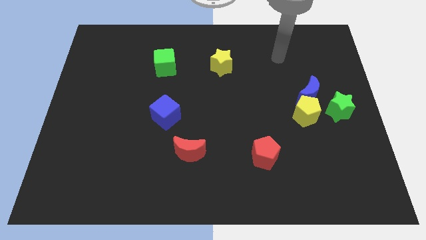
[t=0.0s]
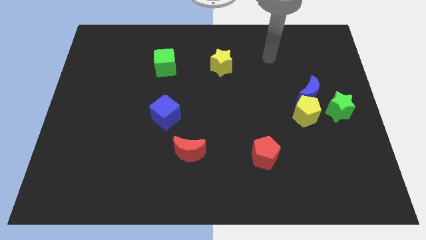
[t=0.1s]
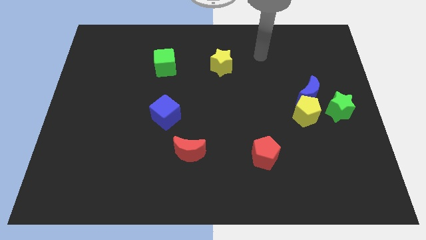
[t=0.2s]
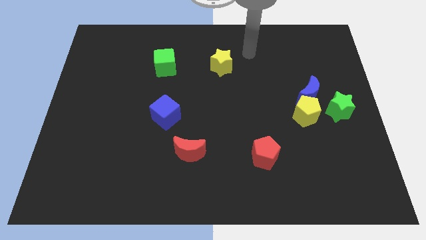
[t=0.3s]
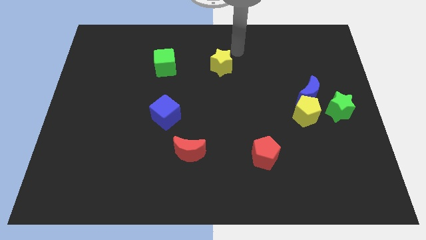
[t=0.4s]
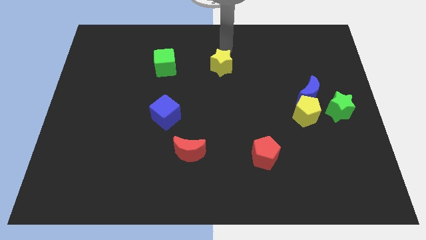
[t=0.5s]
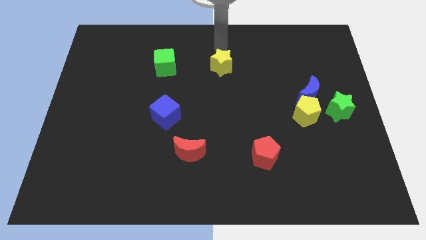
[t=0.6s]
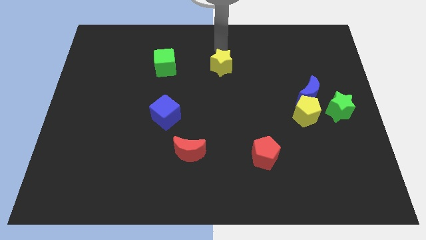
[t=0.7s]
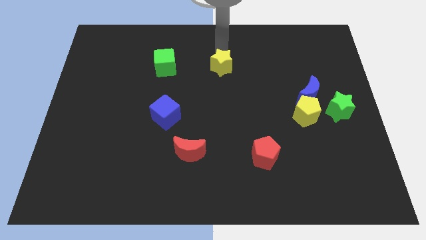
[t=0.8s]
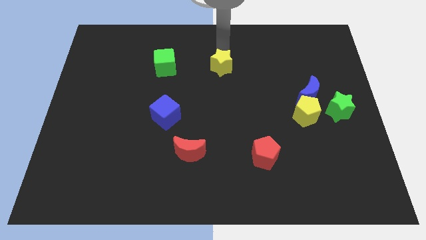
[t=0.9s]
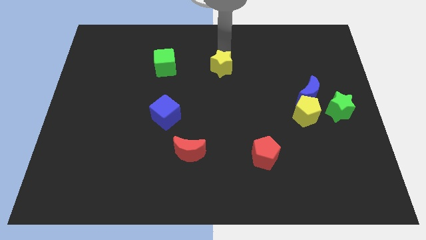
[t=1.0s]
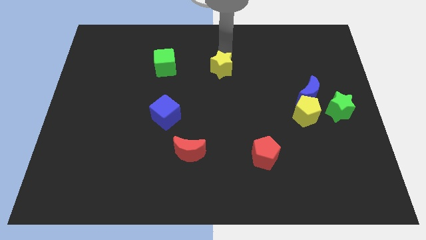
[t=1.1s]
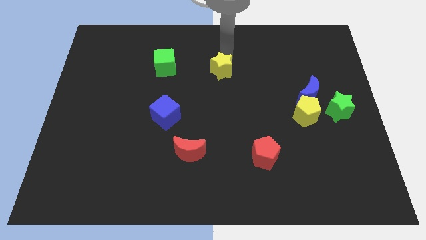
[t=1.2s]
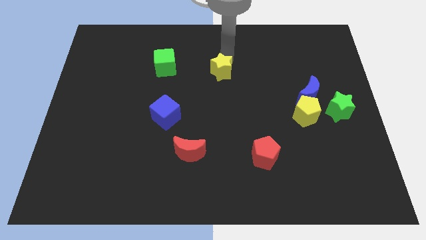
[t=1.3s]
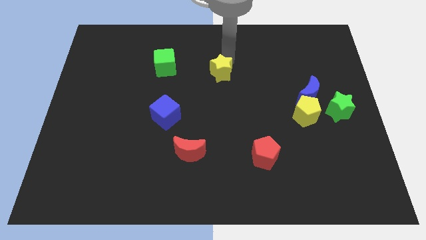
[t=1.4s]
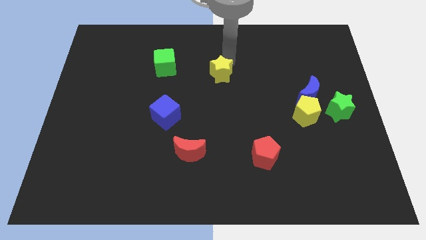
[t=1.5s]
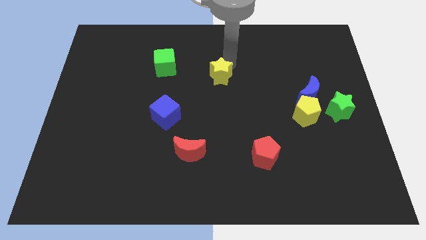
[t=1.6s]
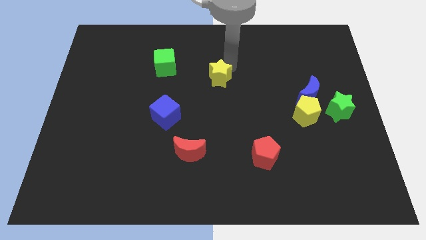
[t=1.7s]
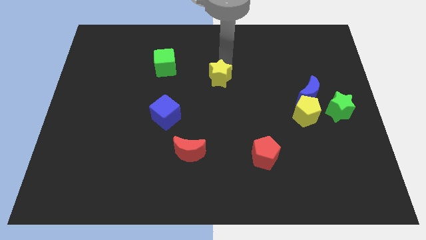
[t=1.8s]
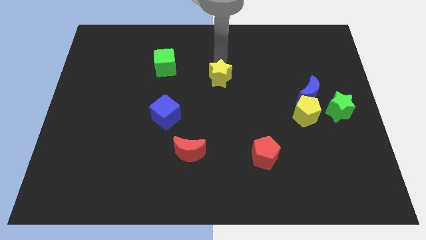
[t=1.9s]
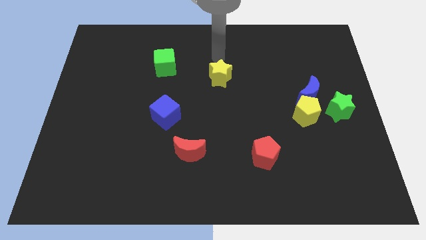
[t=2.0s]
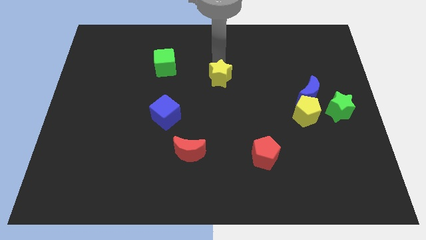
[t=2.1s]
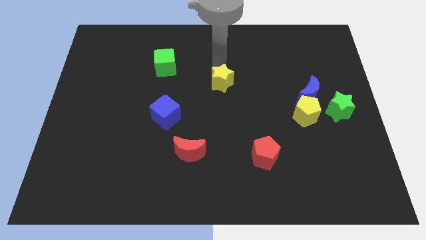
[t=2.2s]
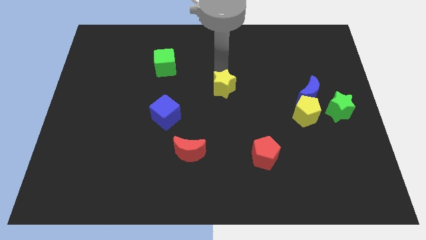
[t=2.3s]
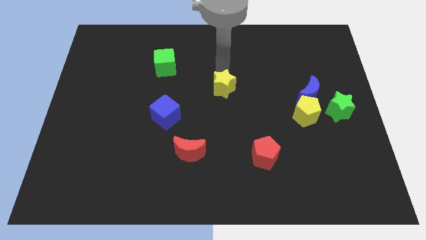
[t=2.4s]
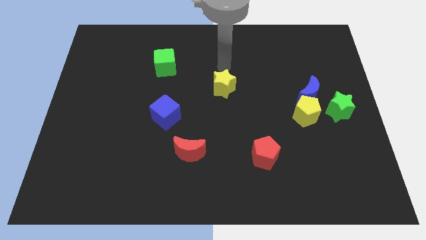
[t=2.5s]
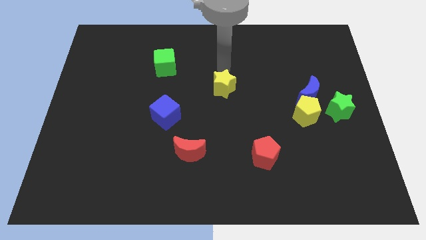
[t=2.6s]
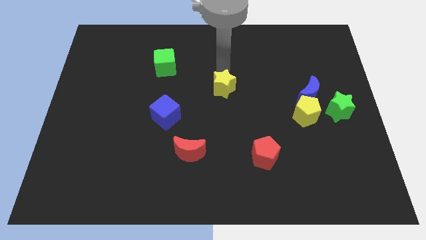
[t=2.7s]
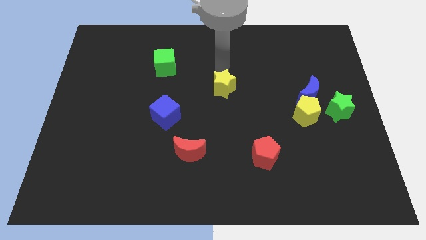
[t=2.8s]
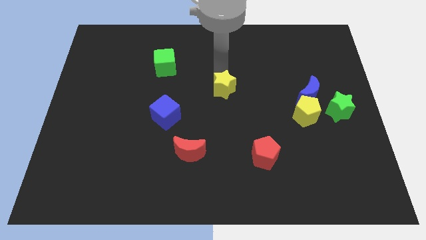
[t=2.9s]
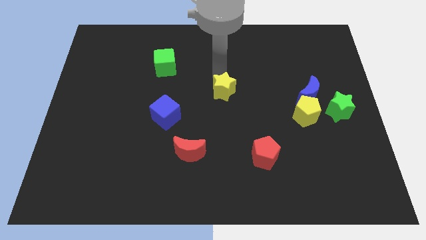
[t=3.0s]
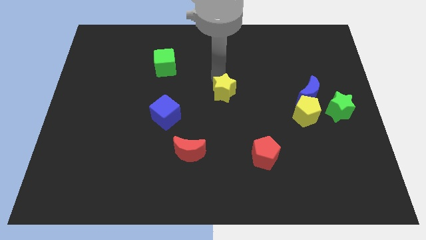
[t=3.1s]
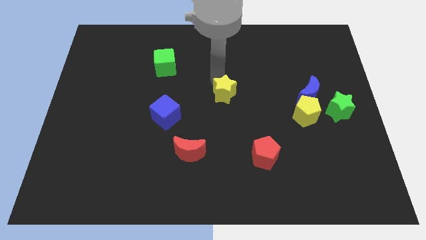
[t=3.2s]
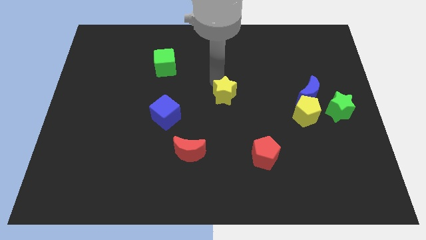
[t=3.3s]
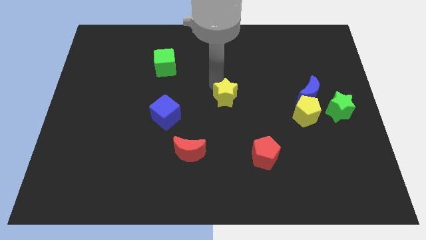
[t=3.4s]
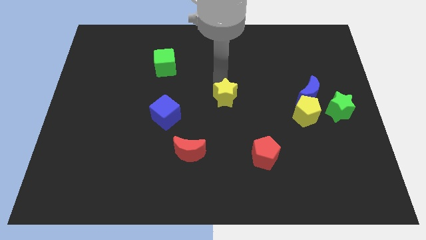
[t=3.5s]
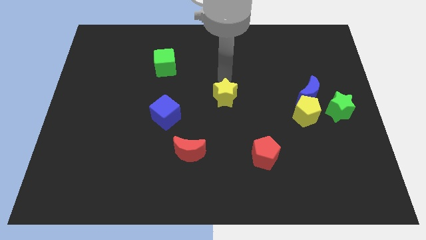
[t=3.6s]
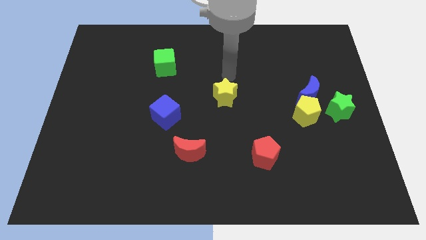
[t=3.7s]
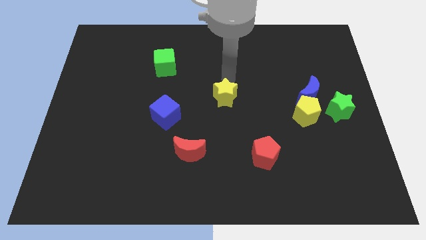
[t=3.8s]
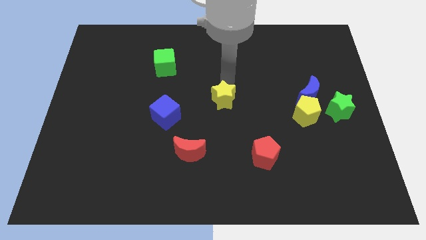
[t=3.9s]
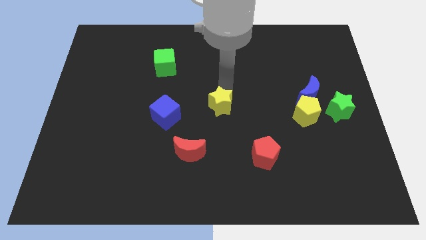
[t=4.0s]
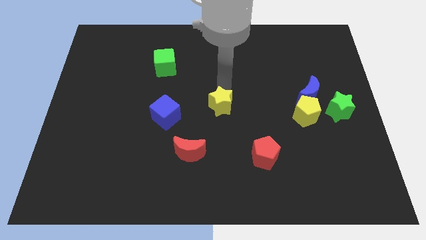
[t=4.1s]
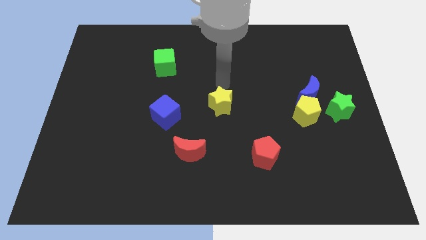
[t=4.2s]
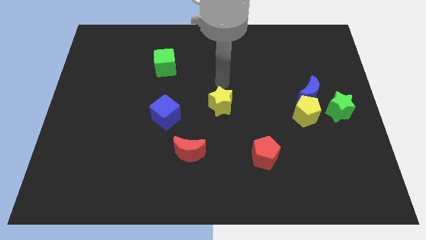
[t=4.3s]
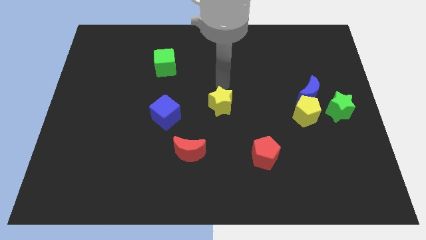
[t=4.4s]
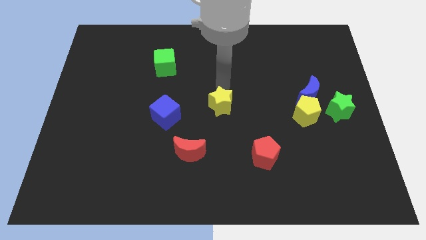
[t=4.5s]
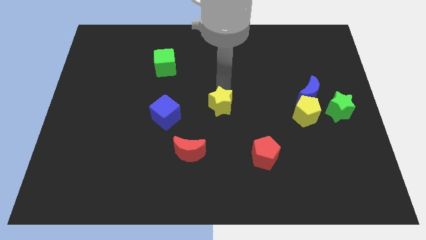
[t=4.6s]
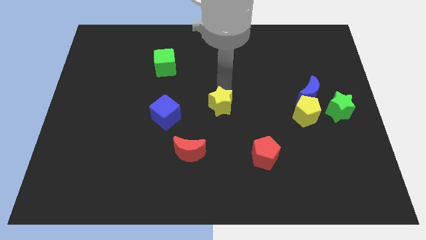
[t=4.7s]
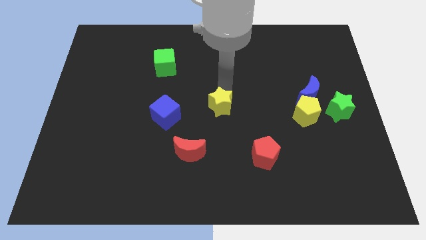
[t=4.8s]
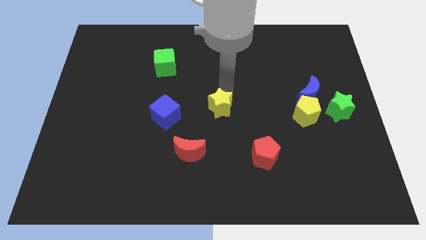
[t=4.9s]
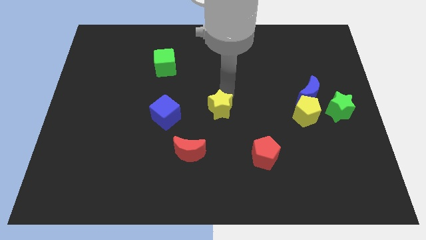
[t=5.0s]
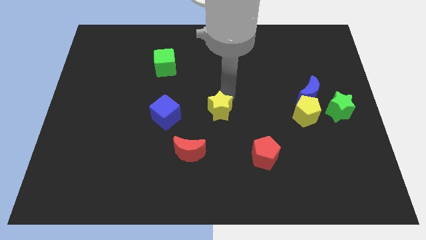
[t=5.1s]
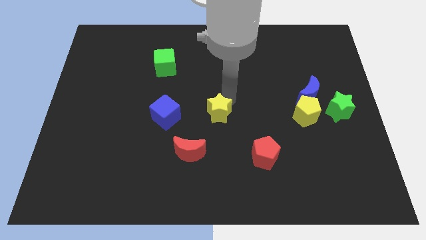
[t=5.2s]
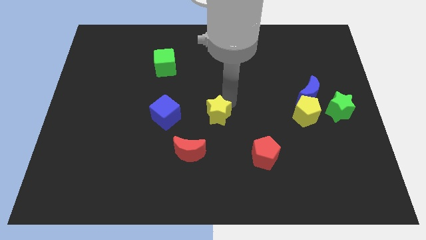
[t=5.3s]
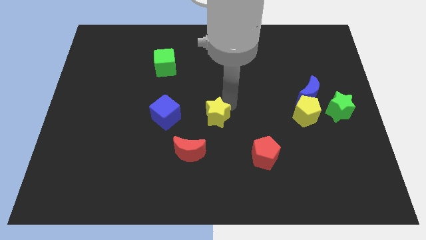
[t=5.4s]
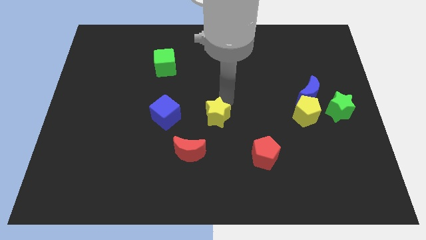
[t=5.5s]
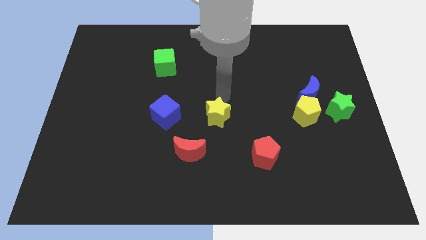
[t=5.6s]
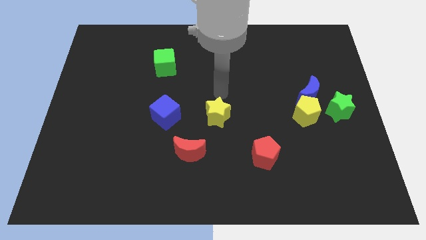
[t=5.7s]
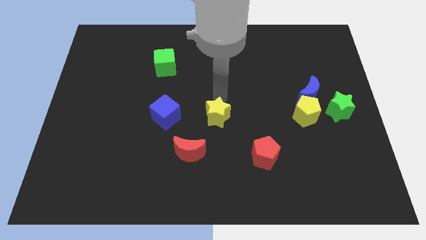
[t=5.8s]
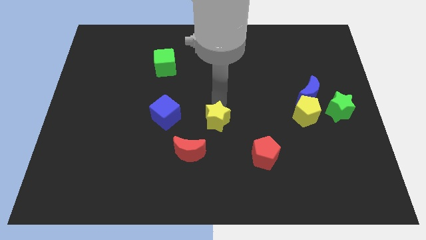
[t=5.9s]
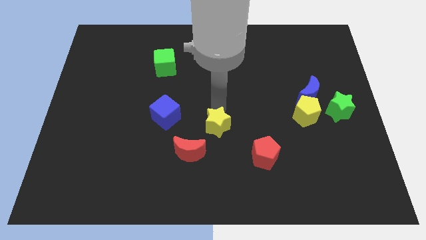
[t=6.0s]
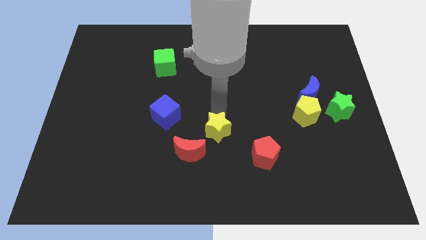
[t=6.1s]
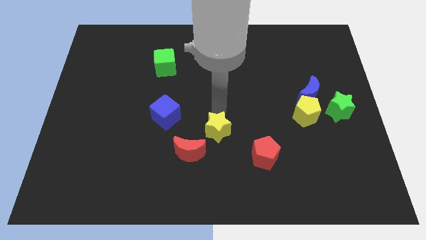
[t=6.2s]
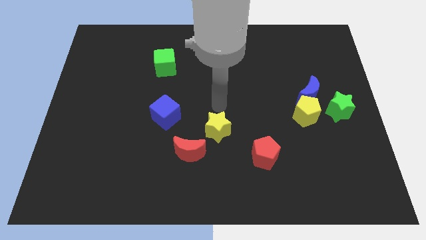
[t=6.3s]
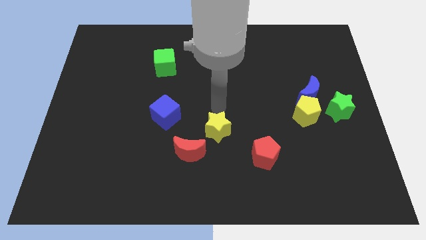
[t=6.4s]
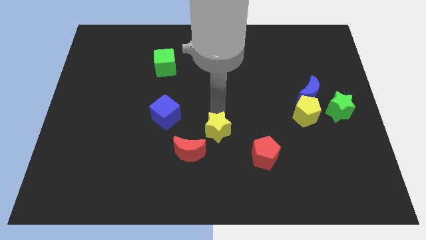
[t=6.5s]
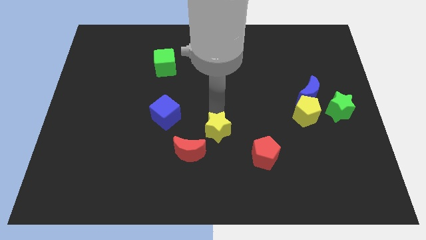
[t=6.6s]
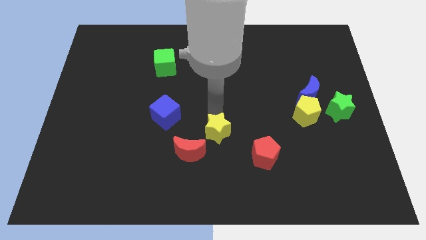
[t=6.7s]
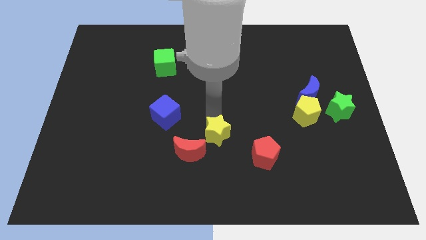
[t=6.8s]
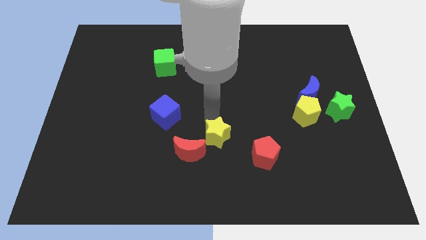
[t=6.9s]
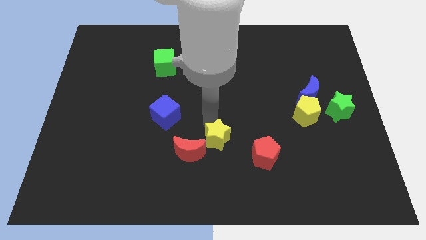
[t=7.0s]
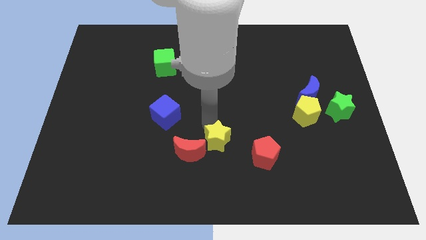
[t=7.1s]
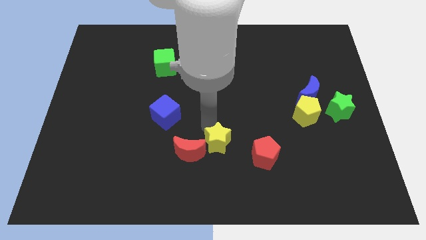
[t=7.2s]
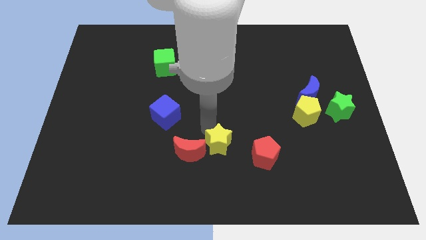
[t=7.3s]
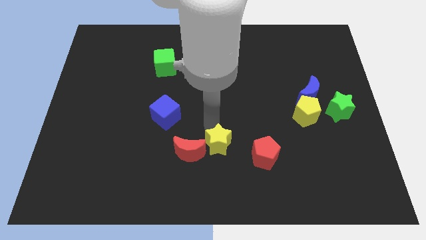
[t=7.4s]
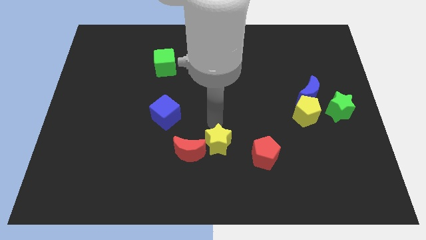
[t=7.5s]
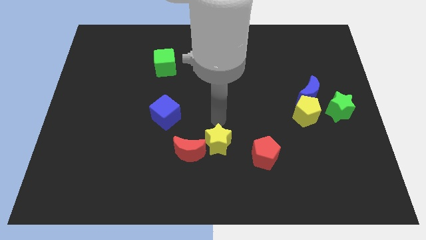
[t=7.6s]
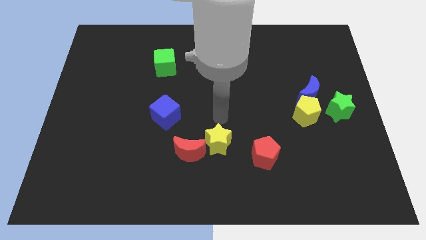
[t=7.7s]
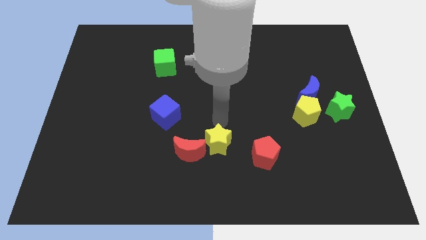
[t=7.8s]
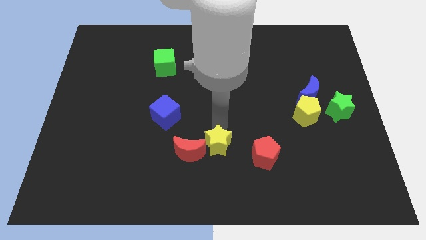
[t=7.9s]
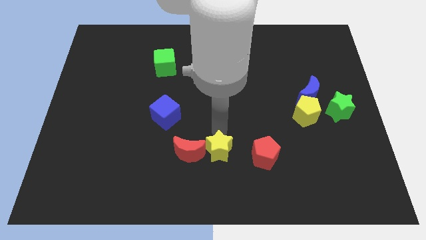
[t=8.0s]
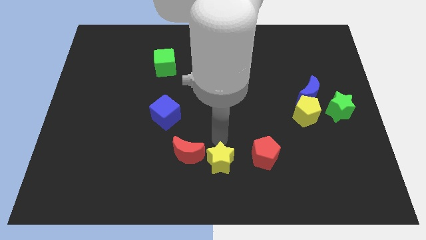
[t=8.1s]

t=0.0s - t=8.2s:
push the yellow star to the bottom side
